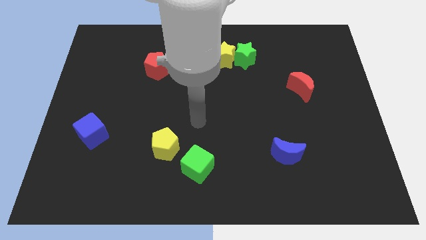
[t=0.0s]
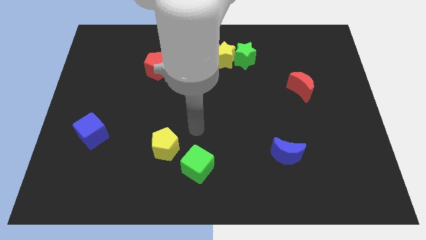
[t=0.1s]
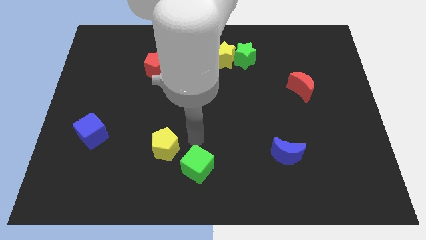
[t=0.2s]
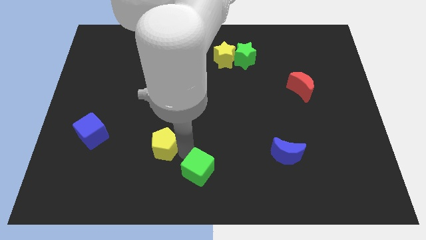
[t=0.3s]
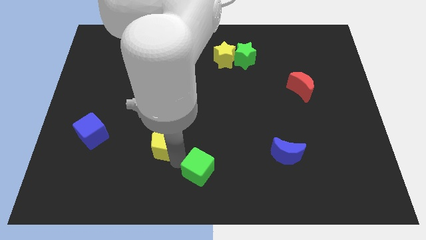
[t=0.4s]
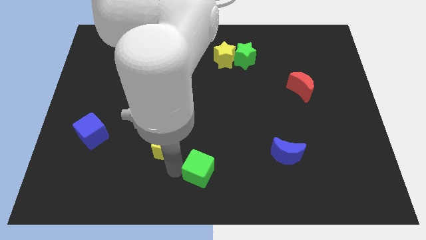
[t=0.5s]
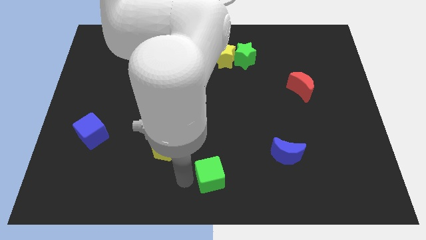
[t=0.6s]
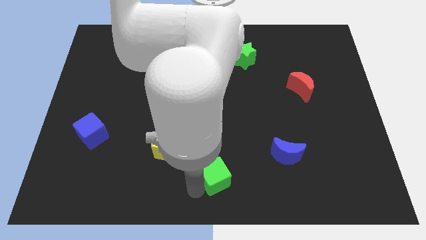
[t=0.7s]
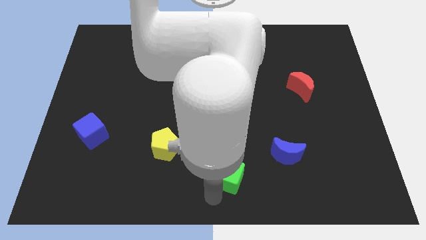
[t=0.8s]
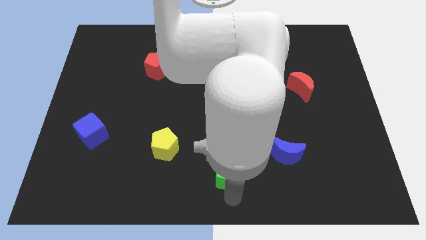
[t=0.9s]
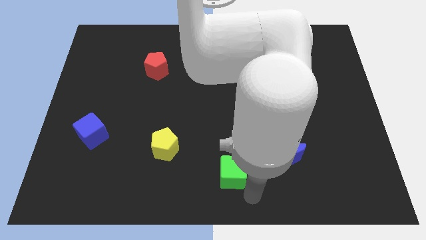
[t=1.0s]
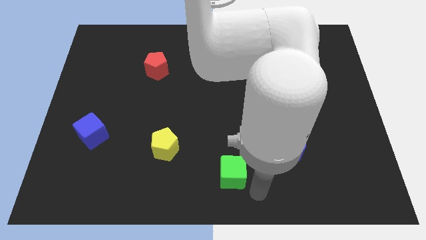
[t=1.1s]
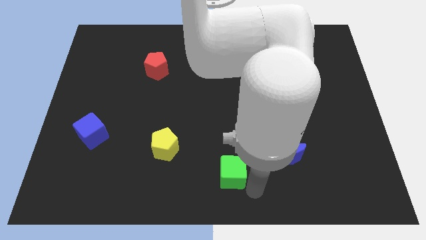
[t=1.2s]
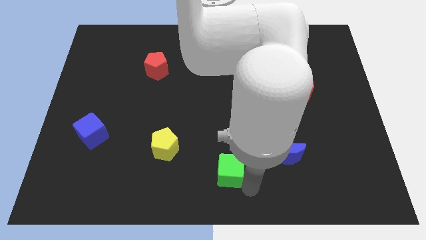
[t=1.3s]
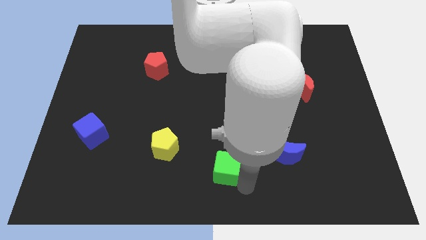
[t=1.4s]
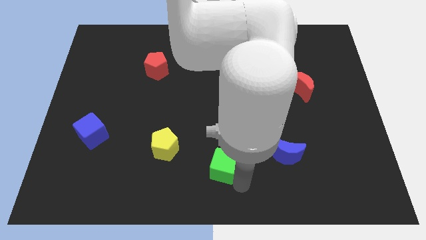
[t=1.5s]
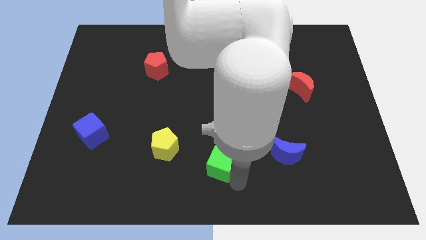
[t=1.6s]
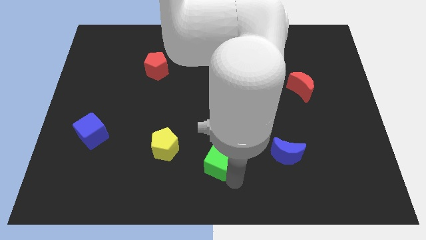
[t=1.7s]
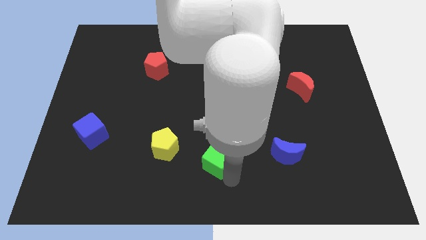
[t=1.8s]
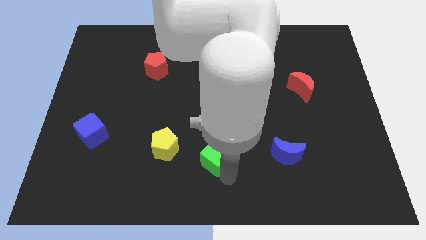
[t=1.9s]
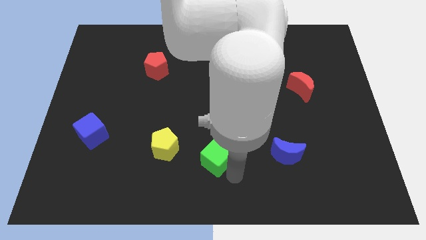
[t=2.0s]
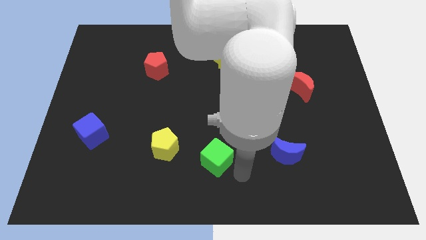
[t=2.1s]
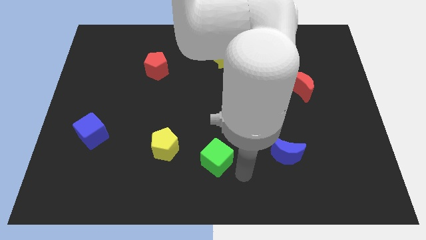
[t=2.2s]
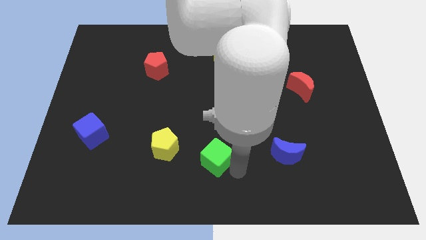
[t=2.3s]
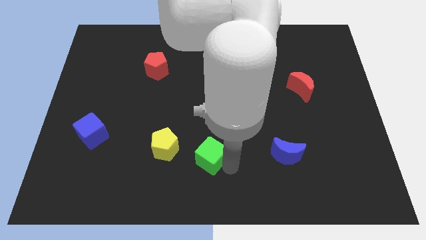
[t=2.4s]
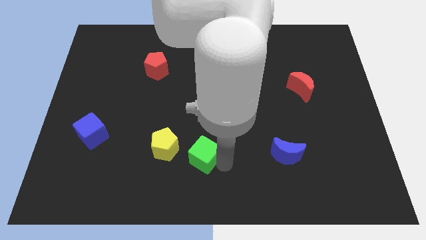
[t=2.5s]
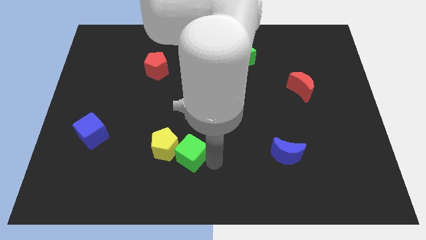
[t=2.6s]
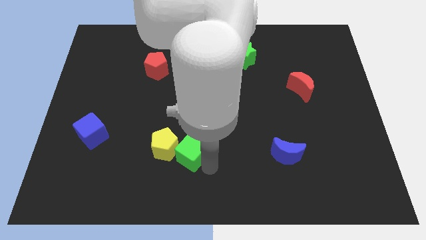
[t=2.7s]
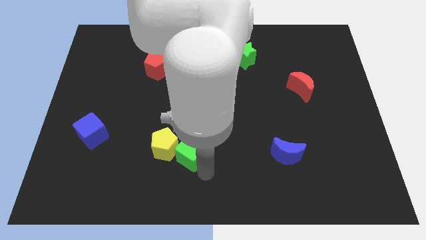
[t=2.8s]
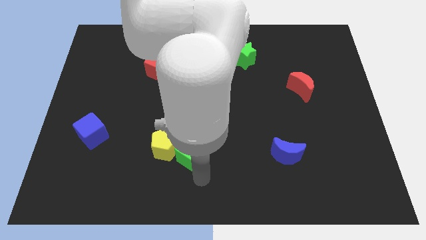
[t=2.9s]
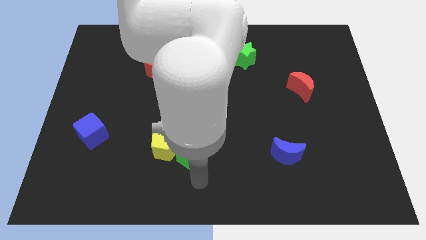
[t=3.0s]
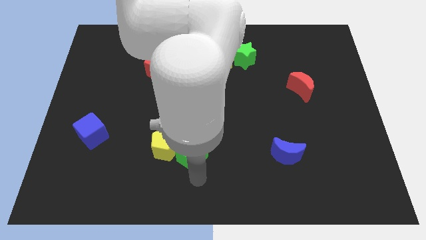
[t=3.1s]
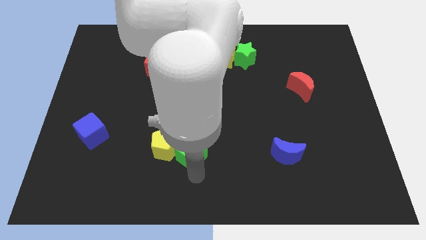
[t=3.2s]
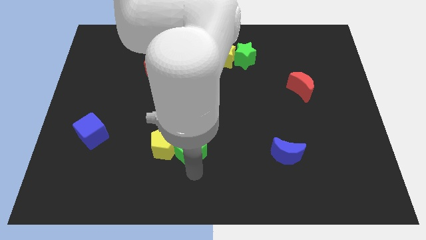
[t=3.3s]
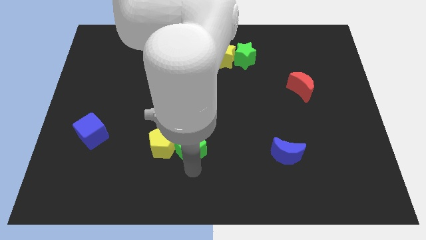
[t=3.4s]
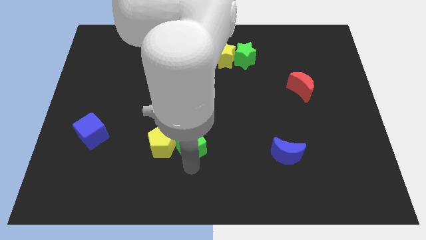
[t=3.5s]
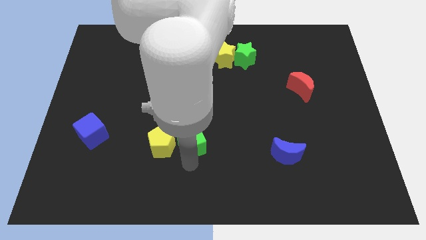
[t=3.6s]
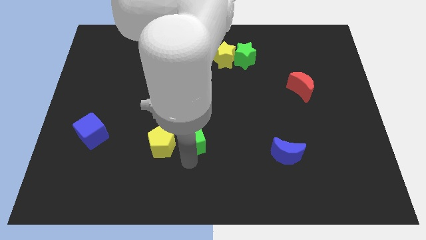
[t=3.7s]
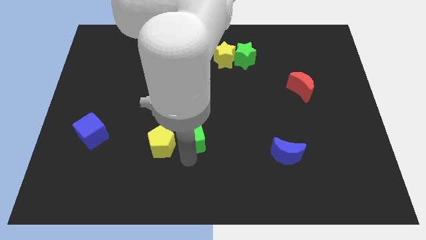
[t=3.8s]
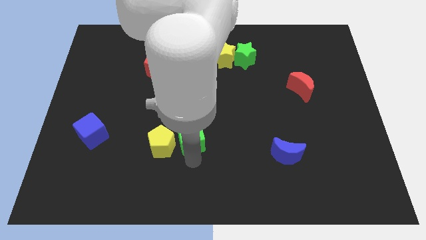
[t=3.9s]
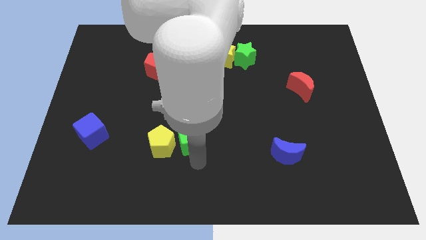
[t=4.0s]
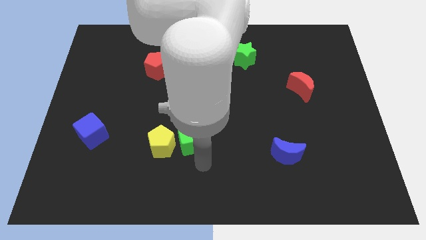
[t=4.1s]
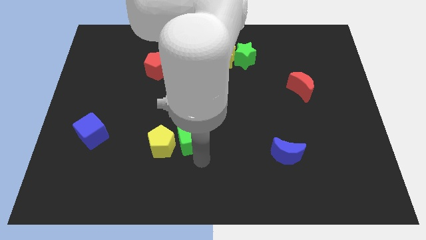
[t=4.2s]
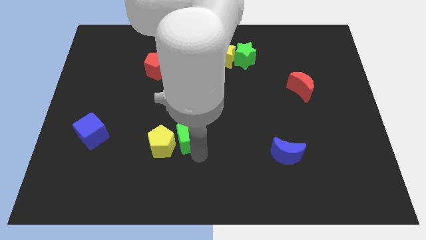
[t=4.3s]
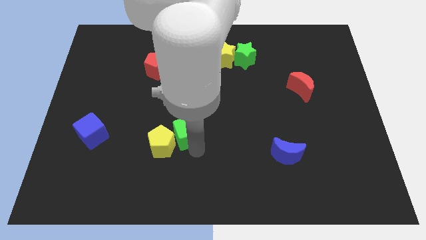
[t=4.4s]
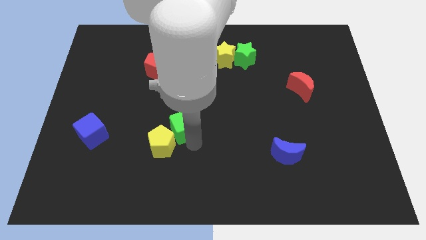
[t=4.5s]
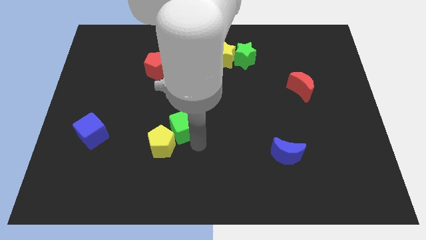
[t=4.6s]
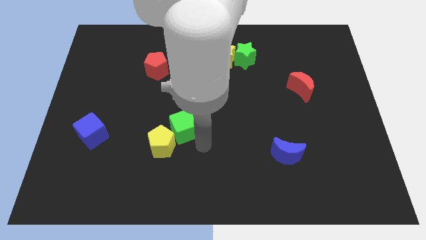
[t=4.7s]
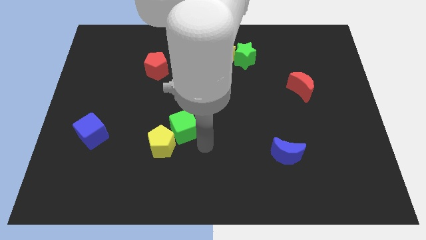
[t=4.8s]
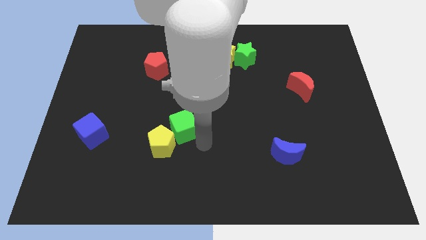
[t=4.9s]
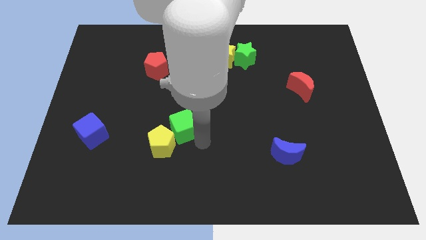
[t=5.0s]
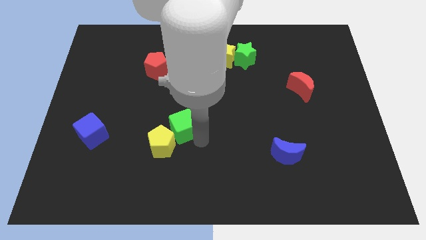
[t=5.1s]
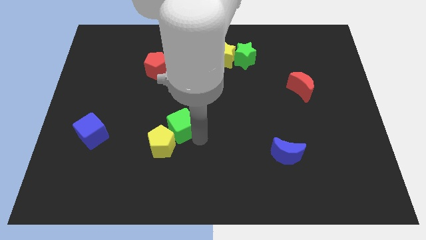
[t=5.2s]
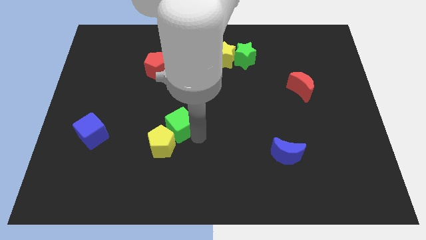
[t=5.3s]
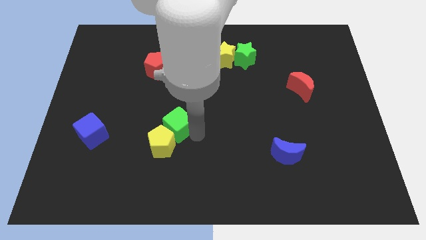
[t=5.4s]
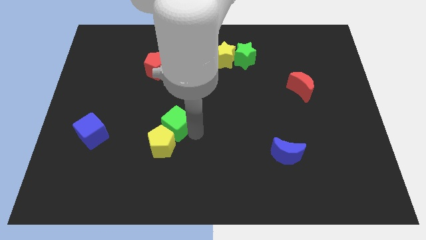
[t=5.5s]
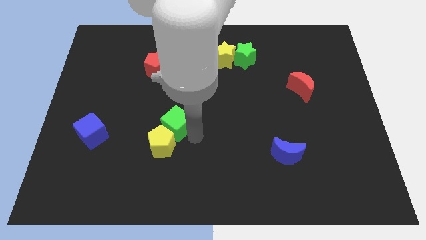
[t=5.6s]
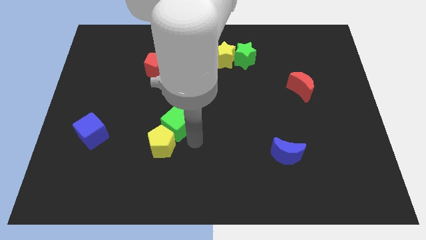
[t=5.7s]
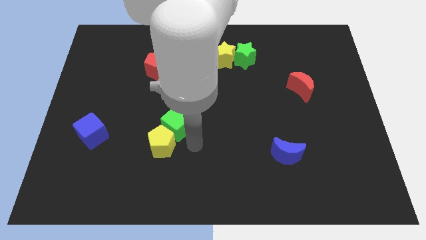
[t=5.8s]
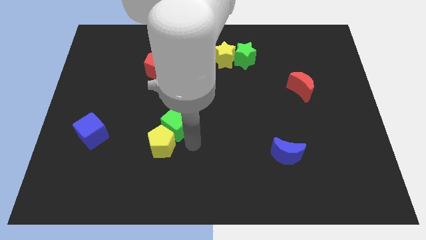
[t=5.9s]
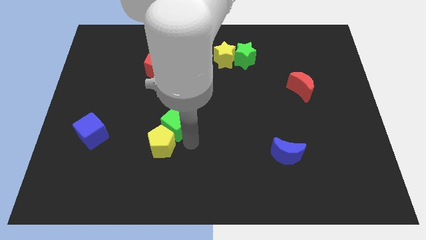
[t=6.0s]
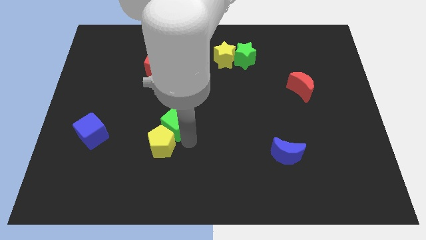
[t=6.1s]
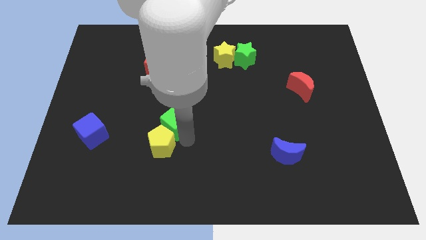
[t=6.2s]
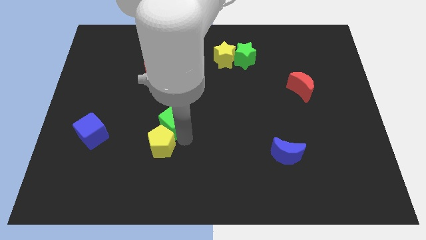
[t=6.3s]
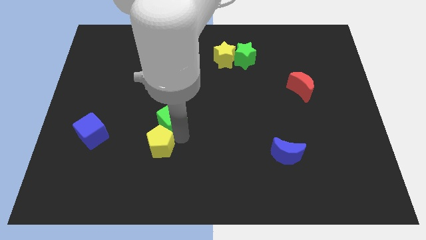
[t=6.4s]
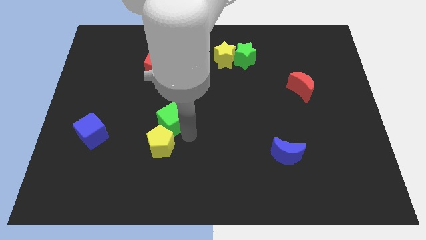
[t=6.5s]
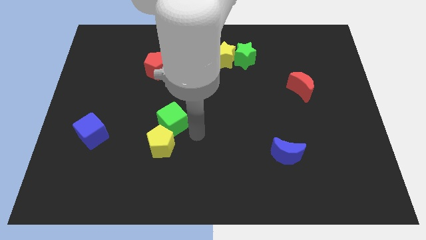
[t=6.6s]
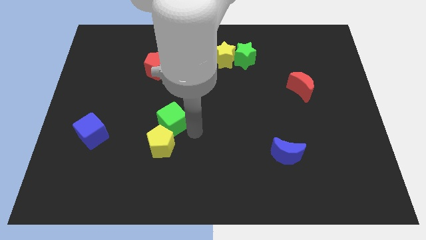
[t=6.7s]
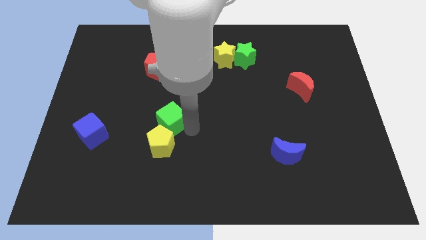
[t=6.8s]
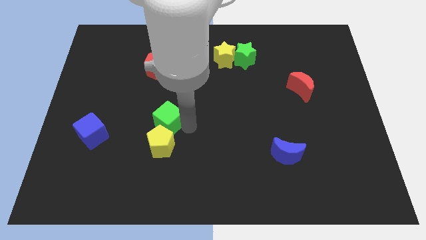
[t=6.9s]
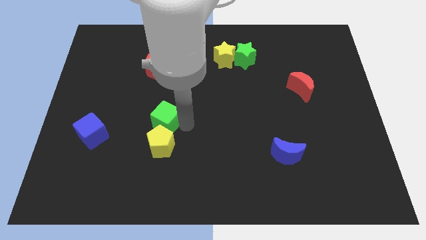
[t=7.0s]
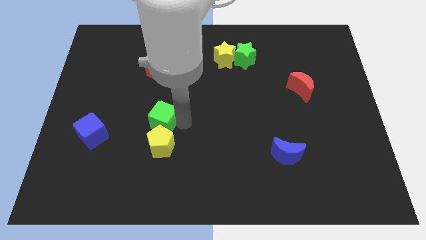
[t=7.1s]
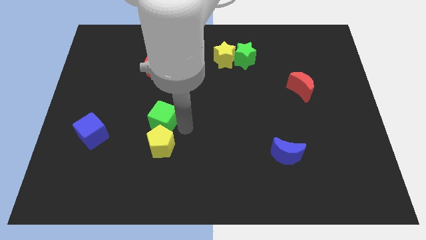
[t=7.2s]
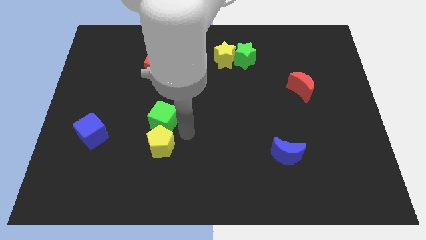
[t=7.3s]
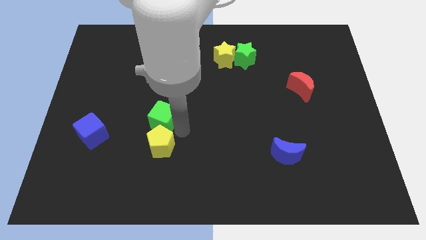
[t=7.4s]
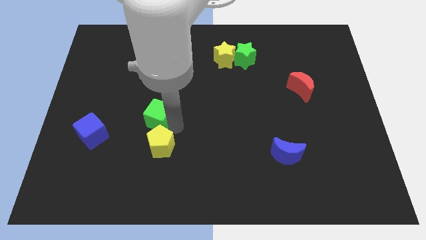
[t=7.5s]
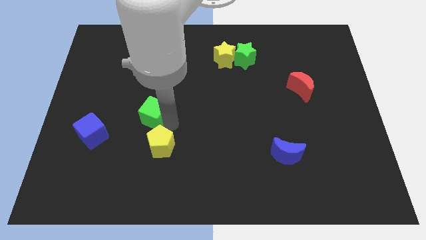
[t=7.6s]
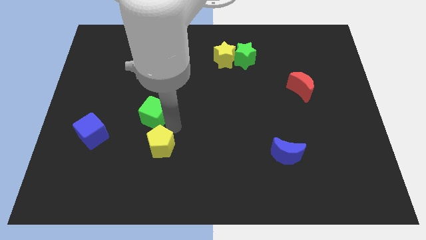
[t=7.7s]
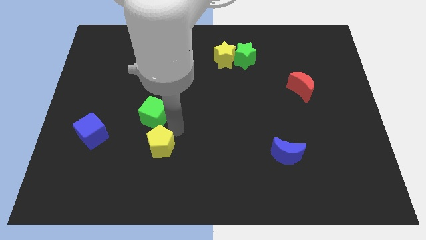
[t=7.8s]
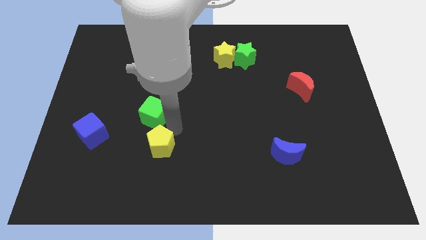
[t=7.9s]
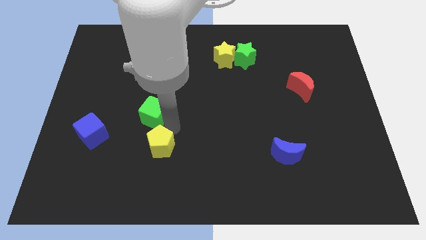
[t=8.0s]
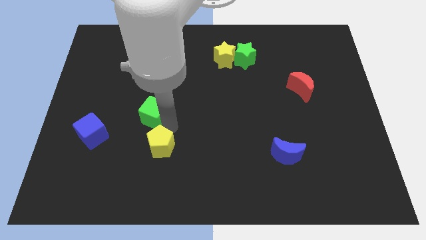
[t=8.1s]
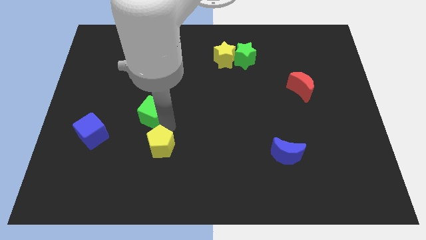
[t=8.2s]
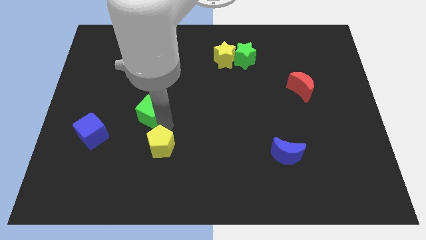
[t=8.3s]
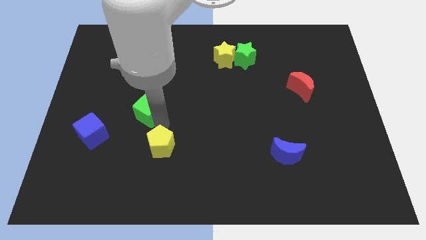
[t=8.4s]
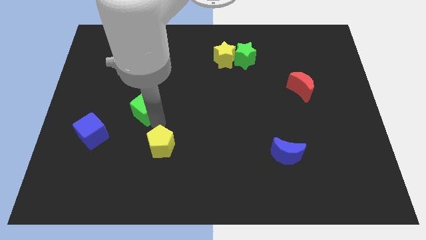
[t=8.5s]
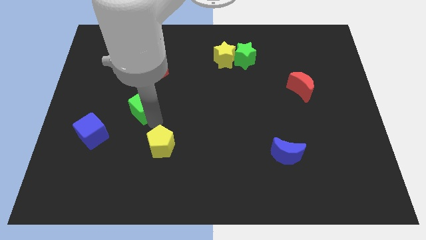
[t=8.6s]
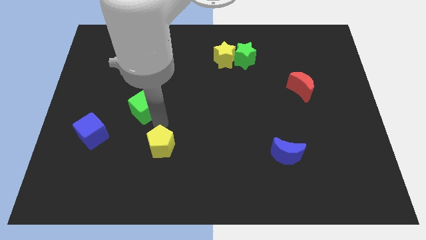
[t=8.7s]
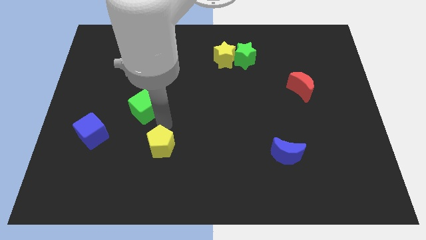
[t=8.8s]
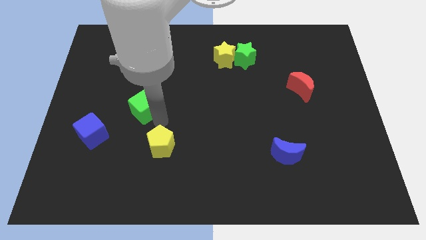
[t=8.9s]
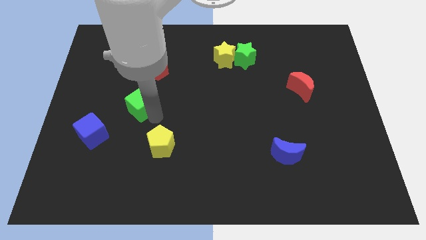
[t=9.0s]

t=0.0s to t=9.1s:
move the green cube upwards and to the left
